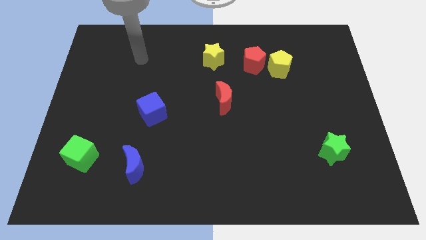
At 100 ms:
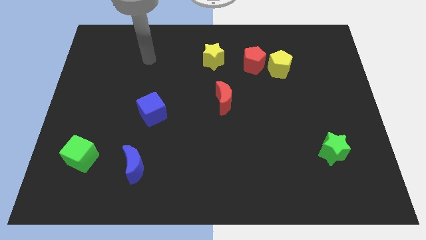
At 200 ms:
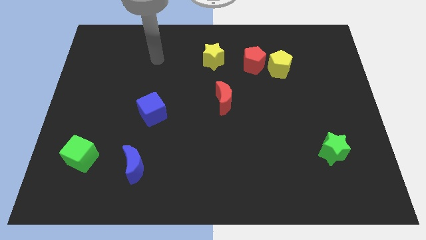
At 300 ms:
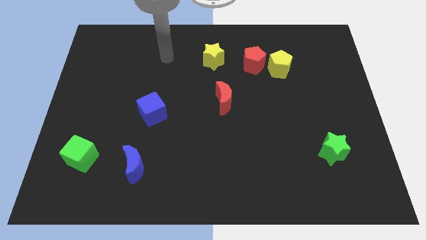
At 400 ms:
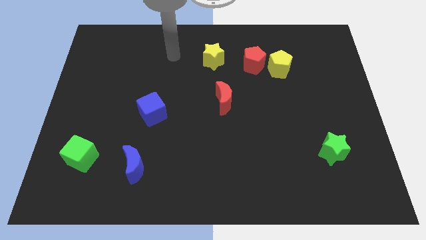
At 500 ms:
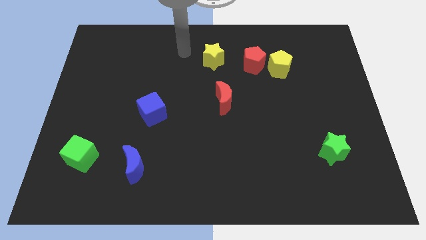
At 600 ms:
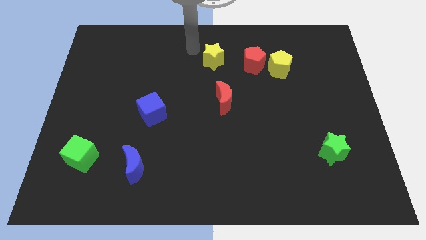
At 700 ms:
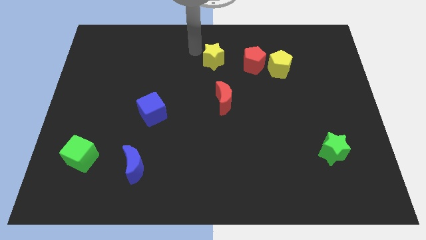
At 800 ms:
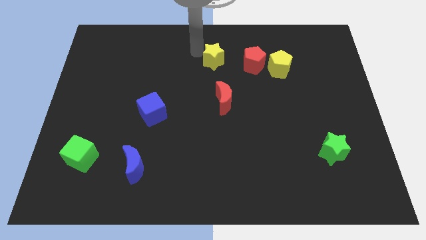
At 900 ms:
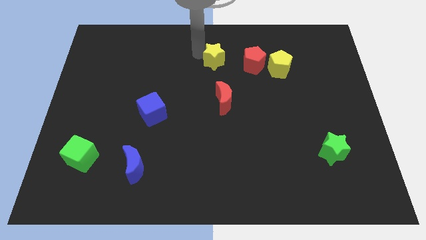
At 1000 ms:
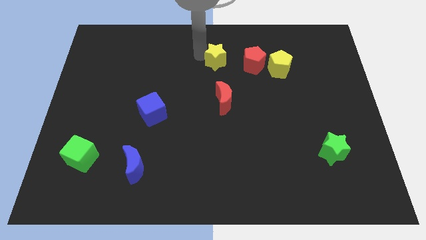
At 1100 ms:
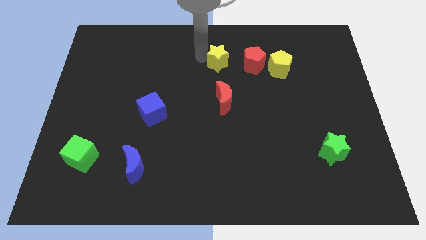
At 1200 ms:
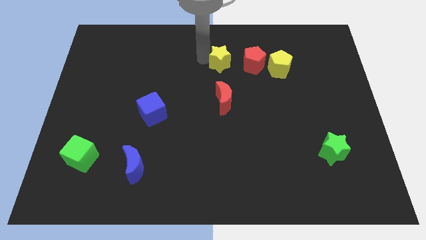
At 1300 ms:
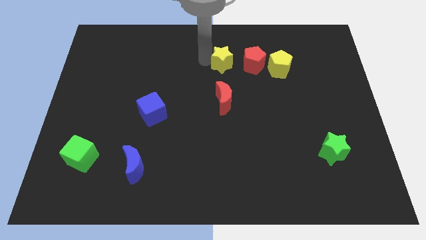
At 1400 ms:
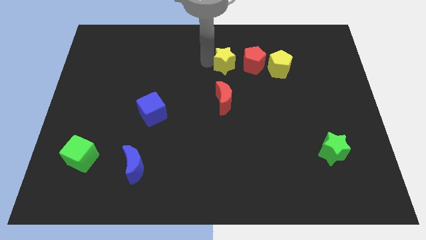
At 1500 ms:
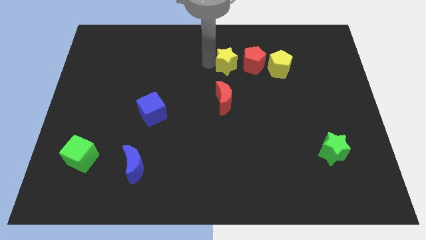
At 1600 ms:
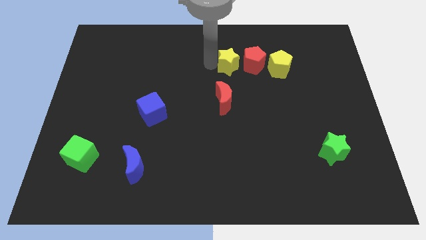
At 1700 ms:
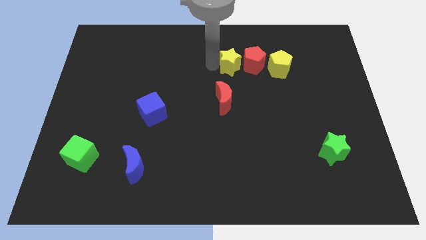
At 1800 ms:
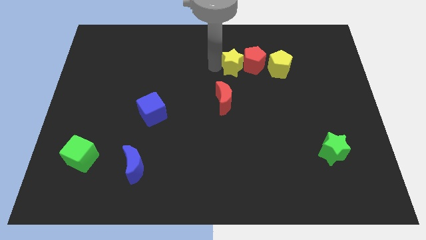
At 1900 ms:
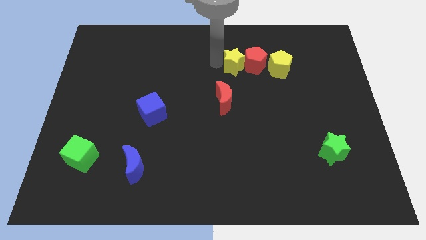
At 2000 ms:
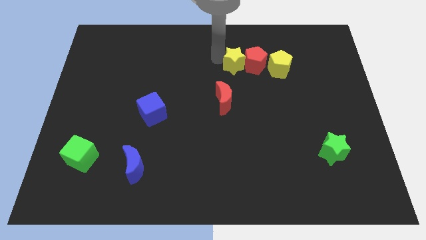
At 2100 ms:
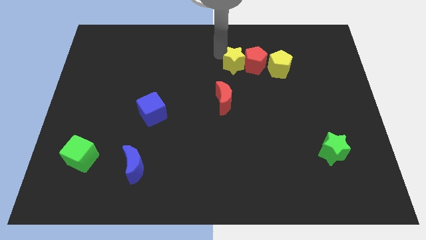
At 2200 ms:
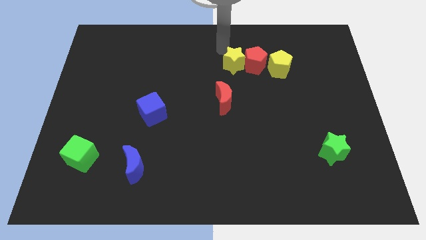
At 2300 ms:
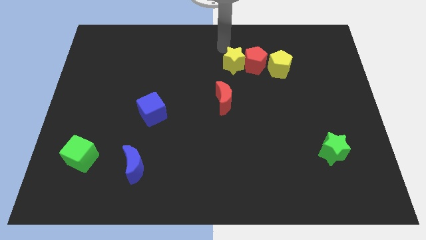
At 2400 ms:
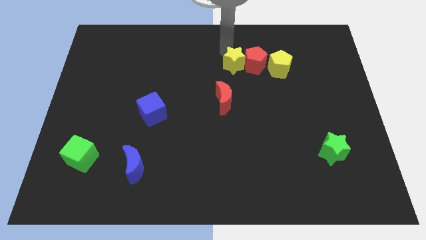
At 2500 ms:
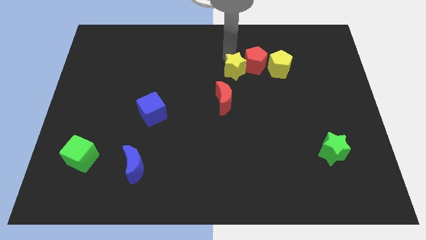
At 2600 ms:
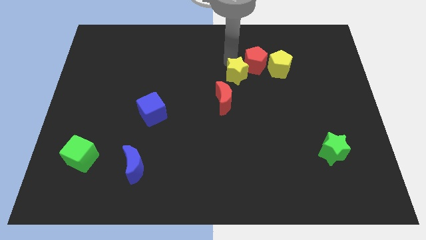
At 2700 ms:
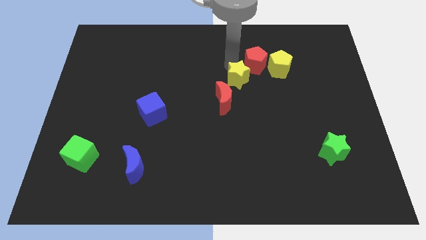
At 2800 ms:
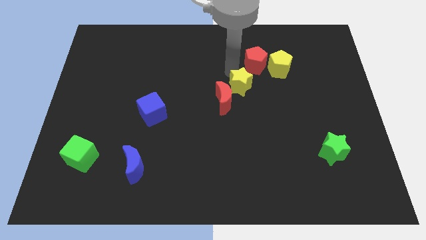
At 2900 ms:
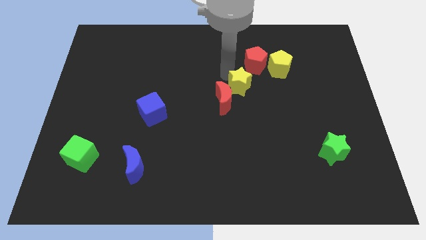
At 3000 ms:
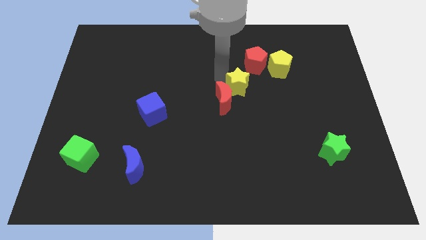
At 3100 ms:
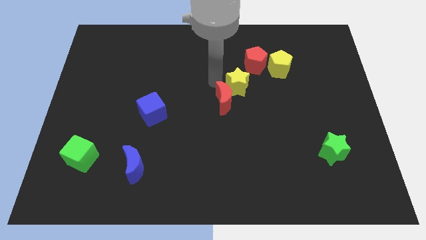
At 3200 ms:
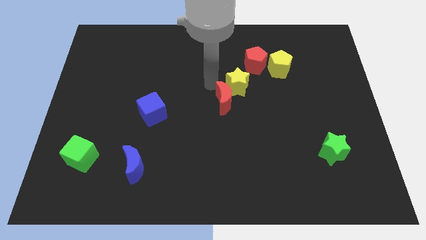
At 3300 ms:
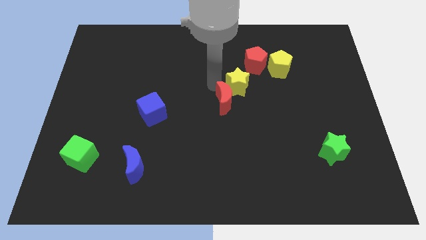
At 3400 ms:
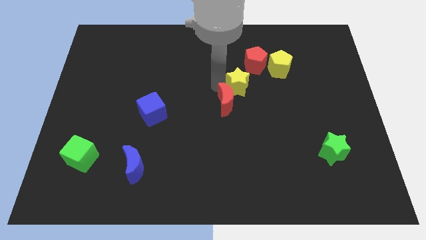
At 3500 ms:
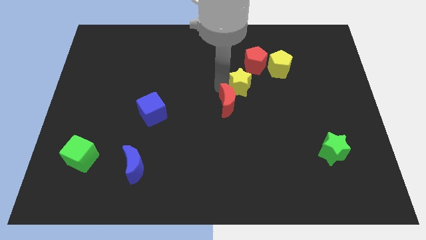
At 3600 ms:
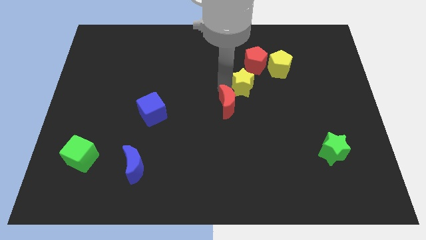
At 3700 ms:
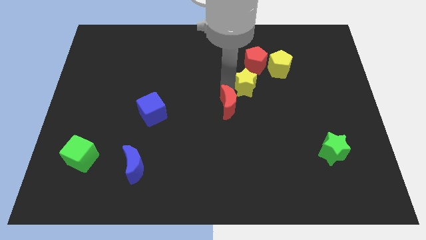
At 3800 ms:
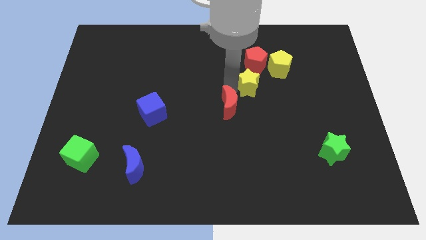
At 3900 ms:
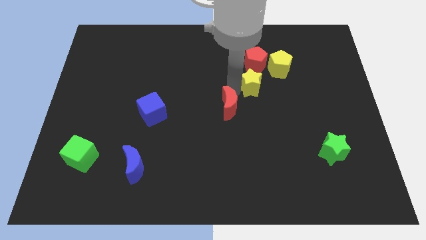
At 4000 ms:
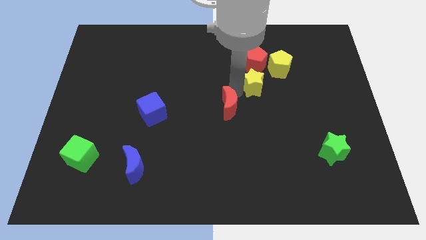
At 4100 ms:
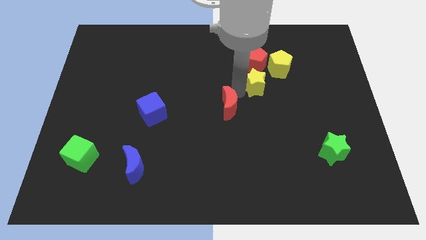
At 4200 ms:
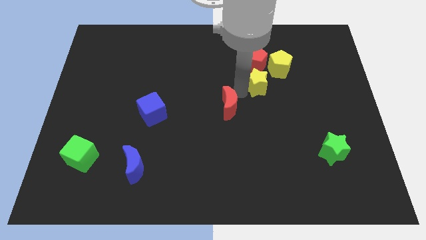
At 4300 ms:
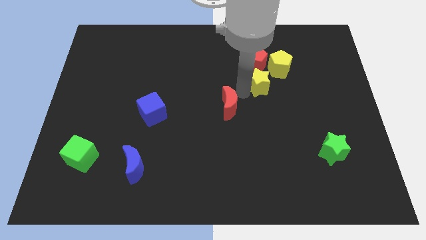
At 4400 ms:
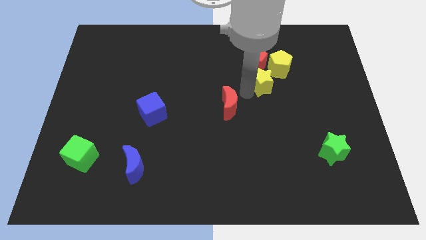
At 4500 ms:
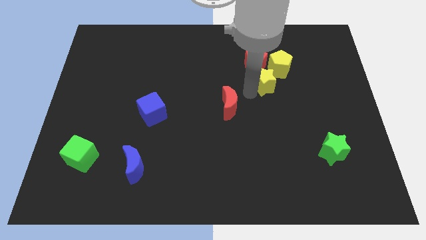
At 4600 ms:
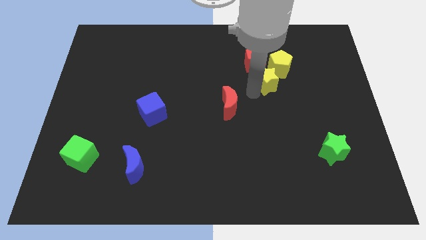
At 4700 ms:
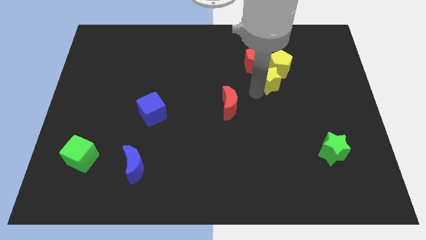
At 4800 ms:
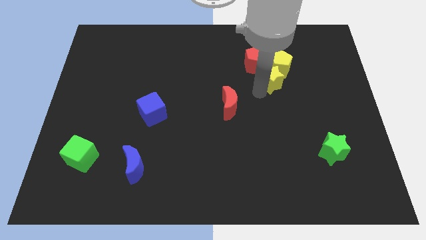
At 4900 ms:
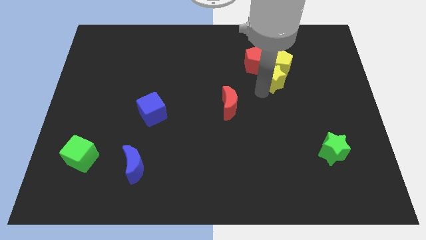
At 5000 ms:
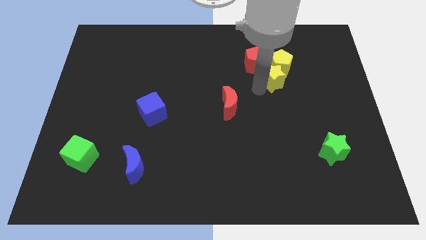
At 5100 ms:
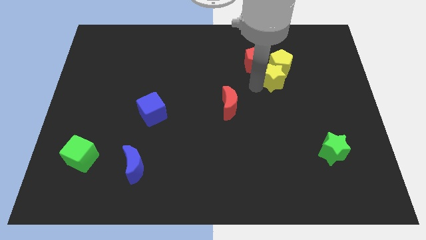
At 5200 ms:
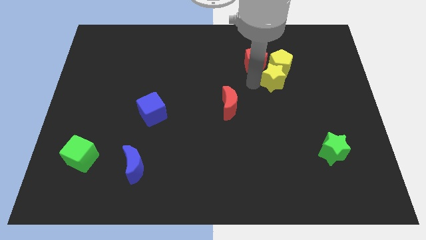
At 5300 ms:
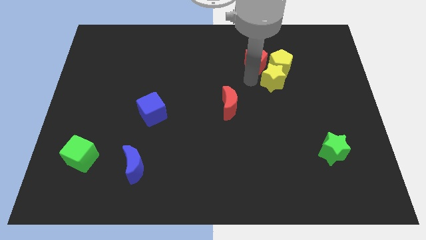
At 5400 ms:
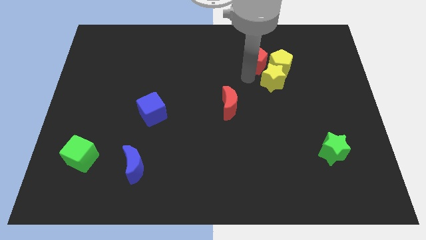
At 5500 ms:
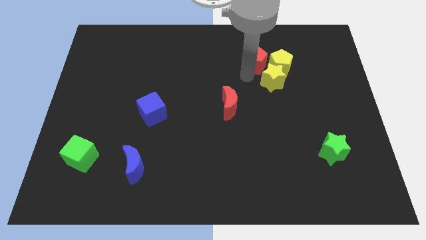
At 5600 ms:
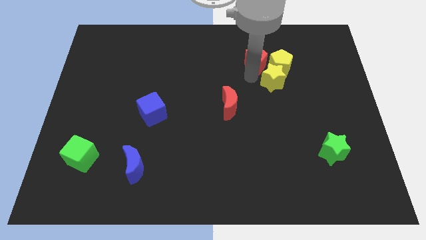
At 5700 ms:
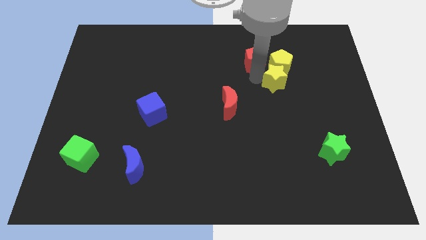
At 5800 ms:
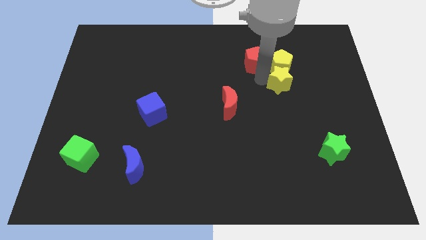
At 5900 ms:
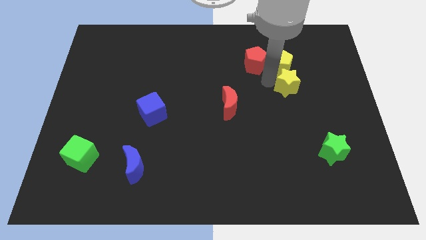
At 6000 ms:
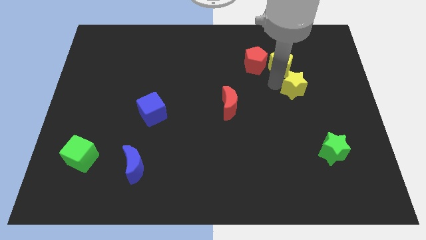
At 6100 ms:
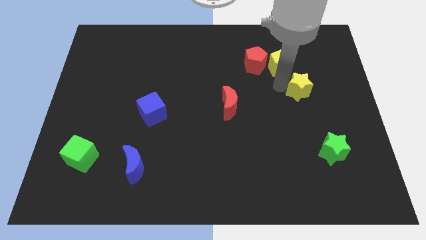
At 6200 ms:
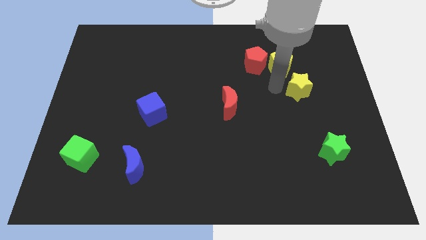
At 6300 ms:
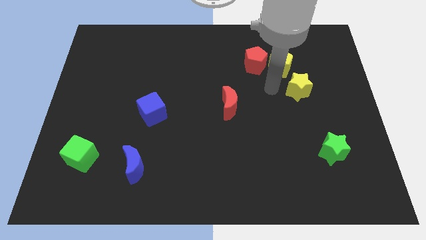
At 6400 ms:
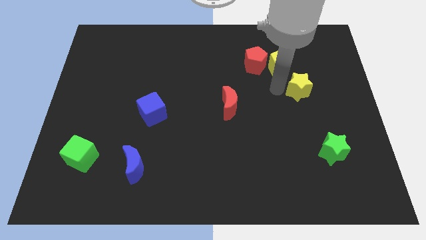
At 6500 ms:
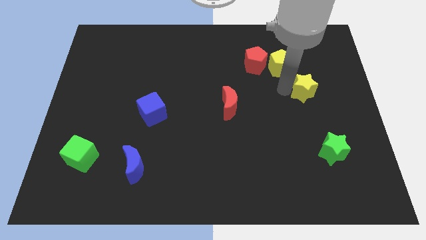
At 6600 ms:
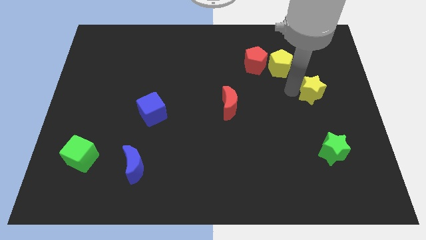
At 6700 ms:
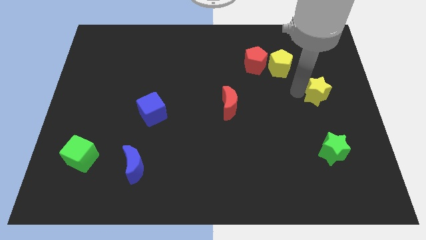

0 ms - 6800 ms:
move the yellow star to the right side
